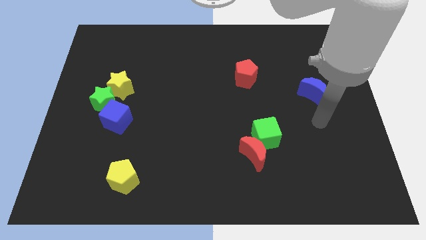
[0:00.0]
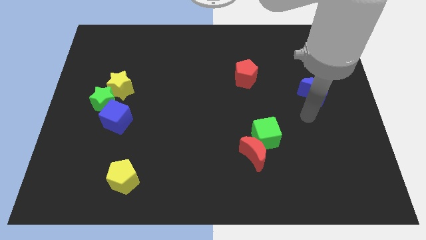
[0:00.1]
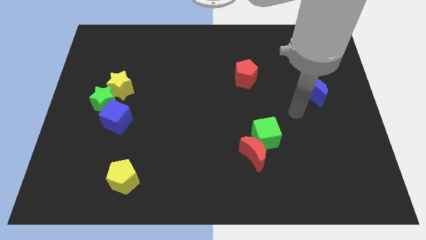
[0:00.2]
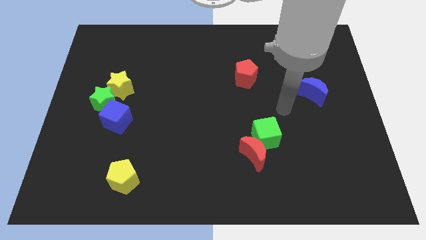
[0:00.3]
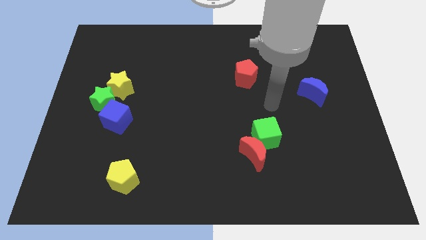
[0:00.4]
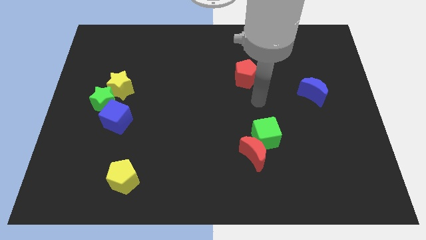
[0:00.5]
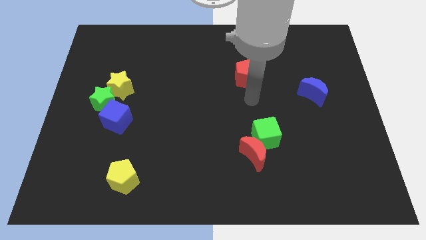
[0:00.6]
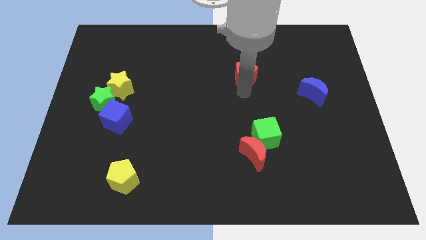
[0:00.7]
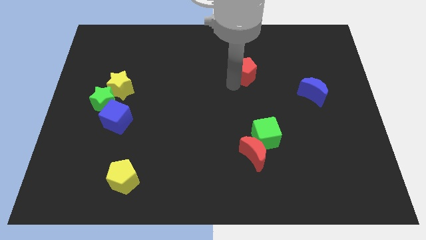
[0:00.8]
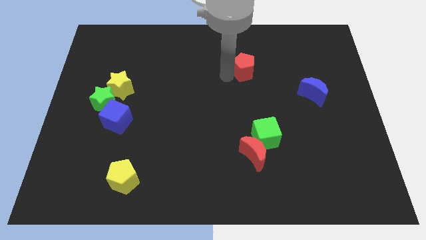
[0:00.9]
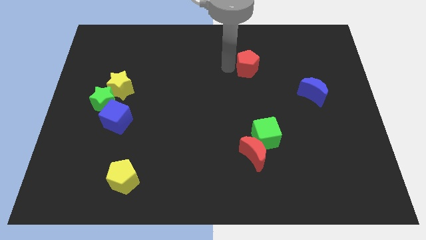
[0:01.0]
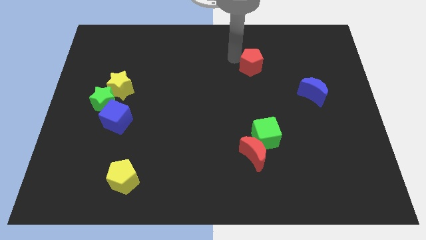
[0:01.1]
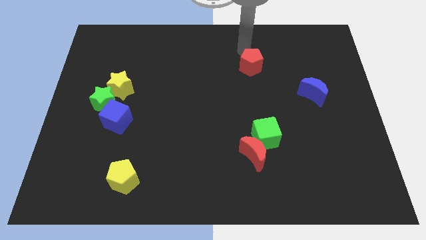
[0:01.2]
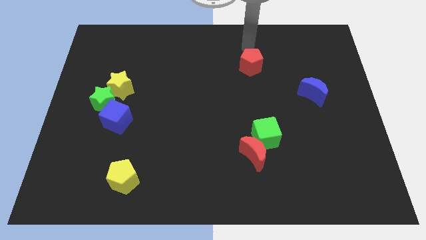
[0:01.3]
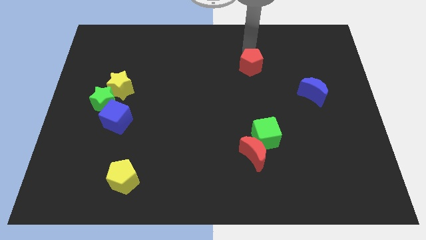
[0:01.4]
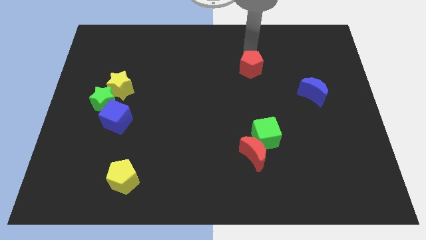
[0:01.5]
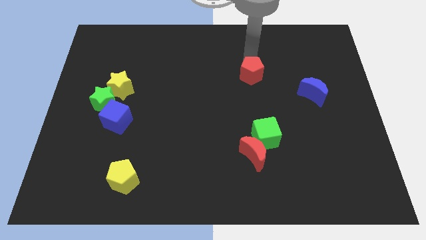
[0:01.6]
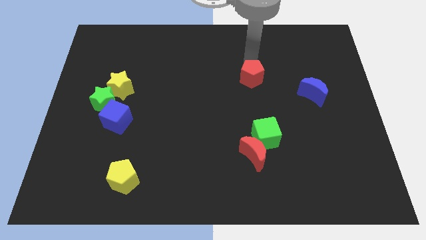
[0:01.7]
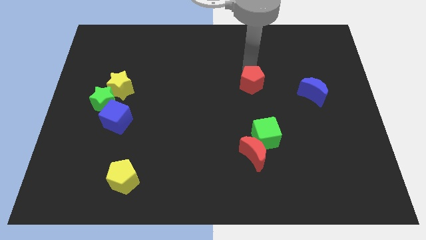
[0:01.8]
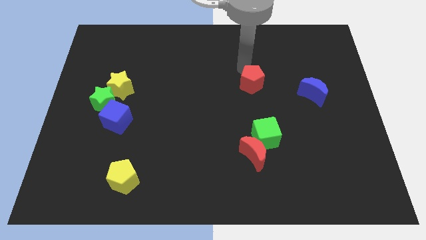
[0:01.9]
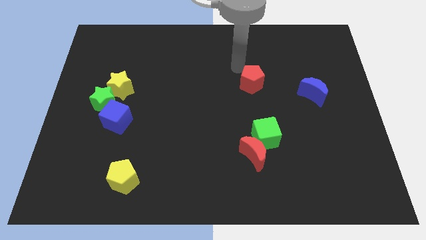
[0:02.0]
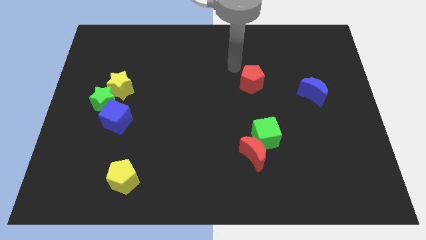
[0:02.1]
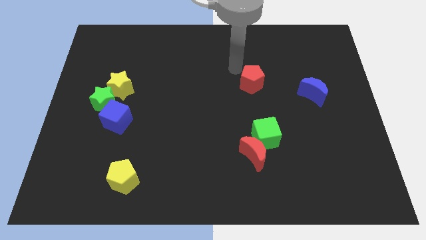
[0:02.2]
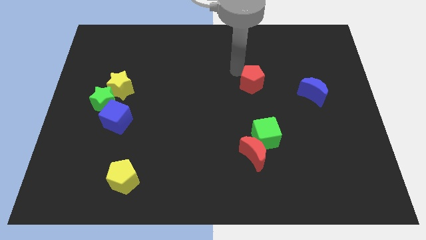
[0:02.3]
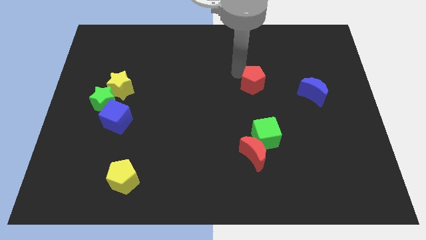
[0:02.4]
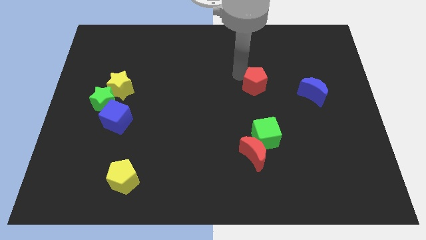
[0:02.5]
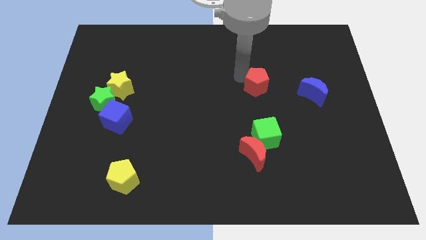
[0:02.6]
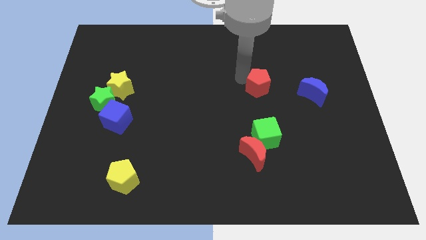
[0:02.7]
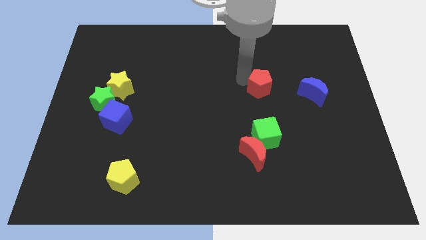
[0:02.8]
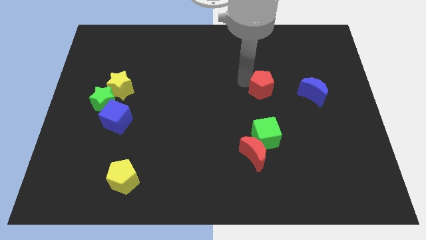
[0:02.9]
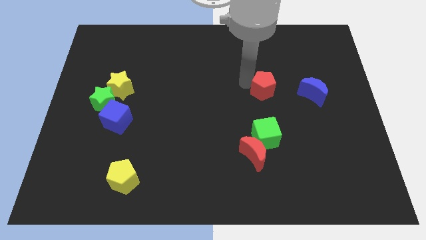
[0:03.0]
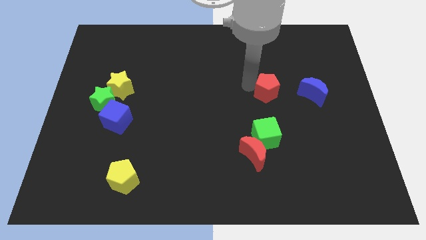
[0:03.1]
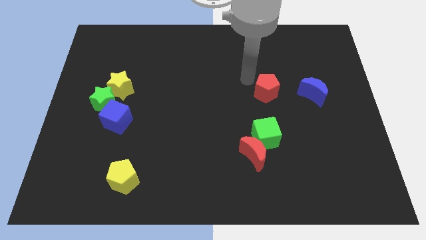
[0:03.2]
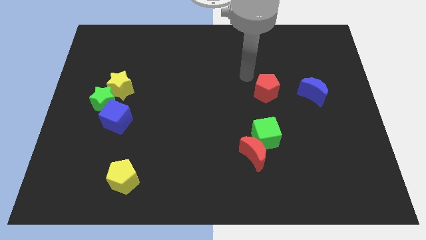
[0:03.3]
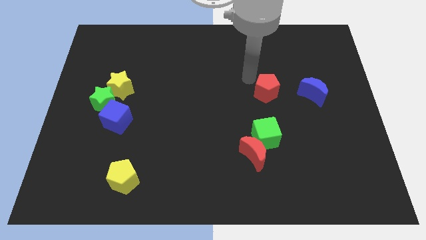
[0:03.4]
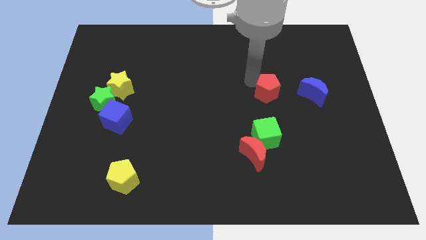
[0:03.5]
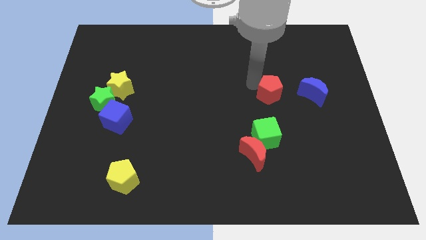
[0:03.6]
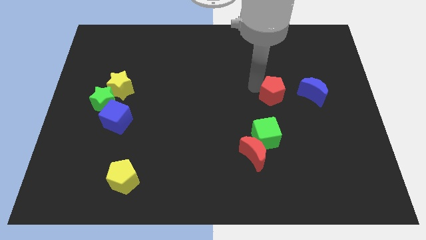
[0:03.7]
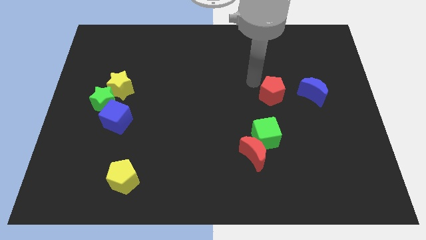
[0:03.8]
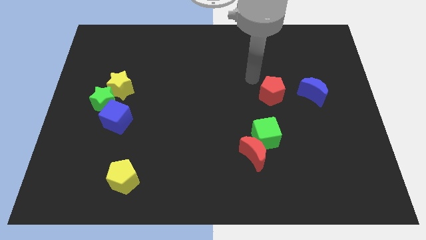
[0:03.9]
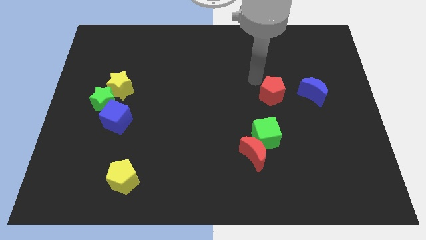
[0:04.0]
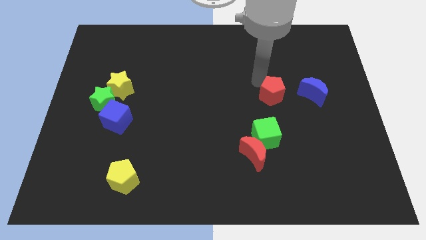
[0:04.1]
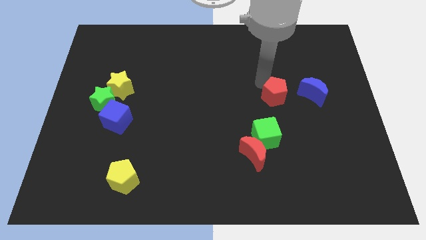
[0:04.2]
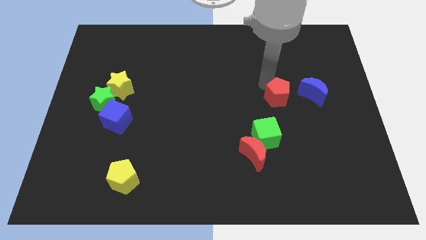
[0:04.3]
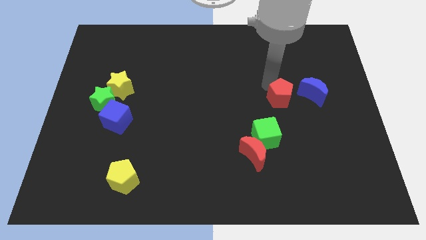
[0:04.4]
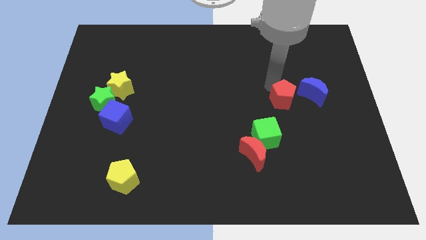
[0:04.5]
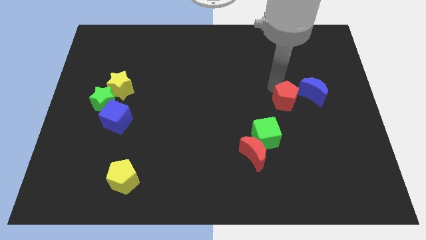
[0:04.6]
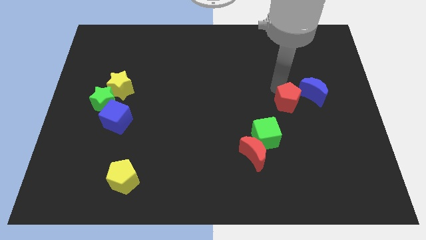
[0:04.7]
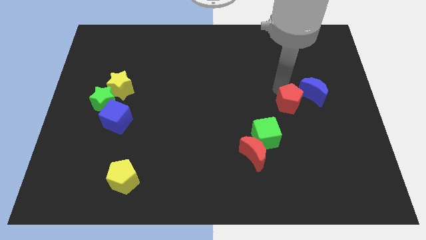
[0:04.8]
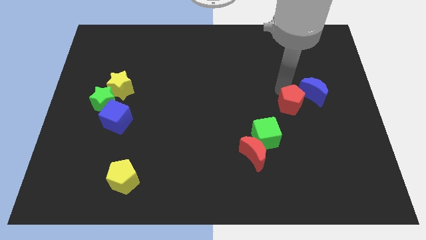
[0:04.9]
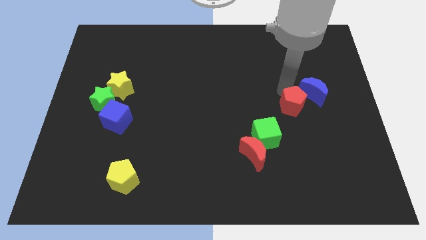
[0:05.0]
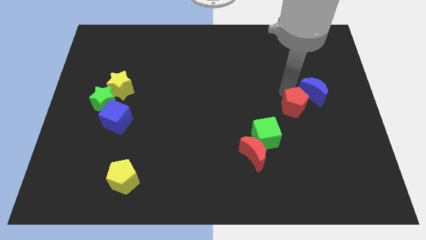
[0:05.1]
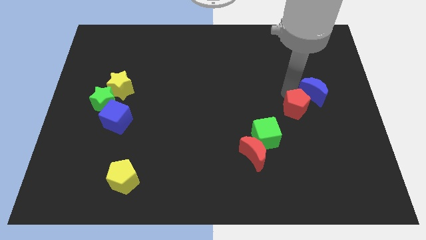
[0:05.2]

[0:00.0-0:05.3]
push the red pentagon to the bottom of the blue moon

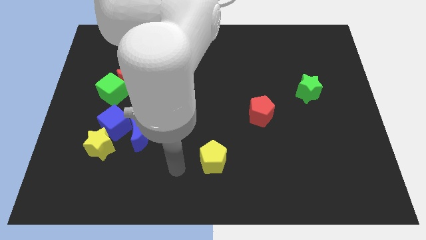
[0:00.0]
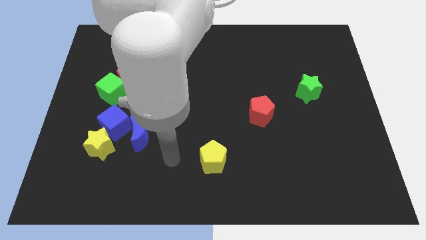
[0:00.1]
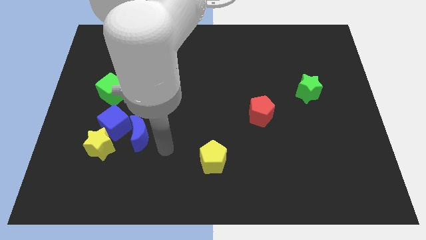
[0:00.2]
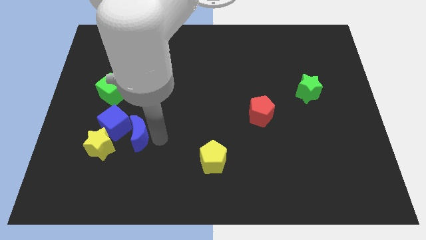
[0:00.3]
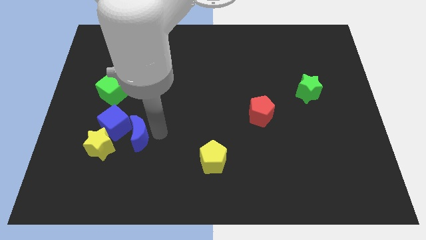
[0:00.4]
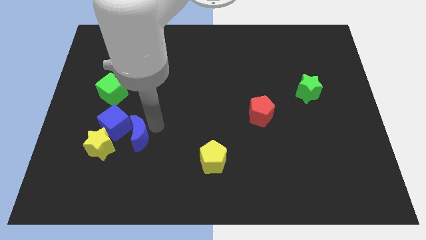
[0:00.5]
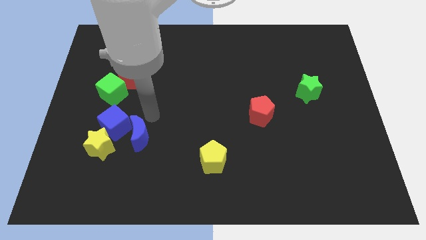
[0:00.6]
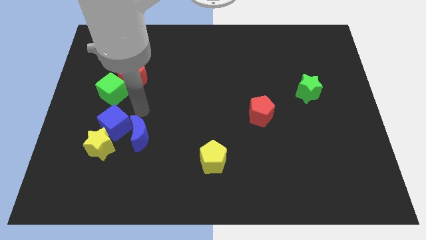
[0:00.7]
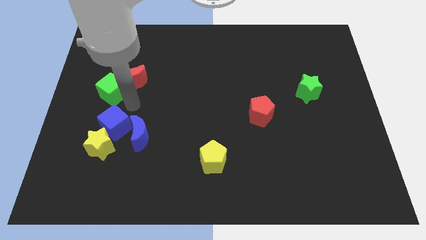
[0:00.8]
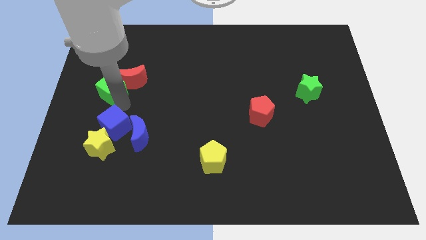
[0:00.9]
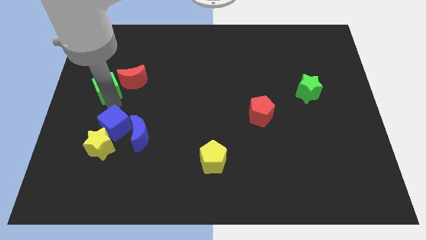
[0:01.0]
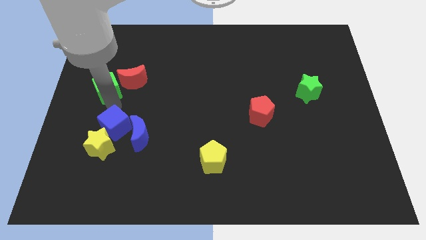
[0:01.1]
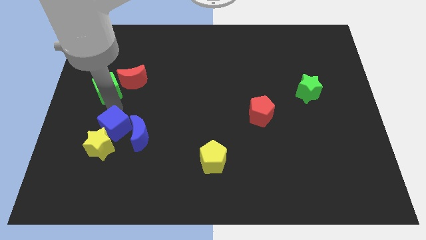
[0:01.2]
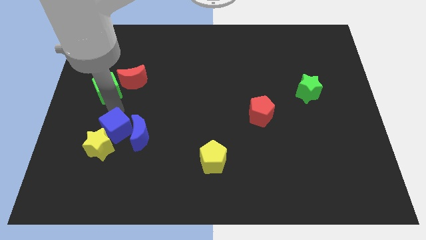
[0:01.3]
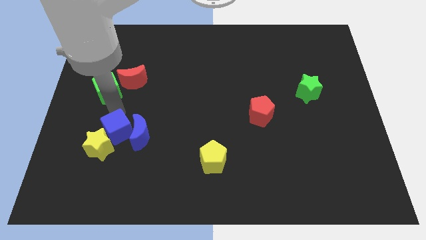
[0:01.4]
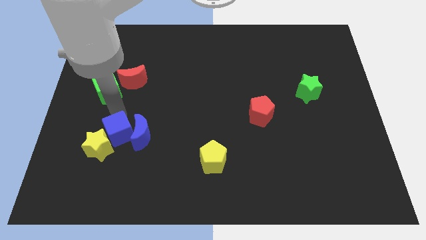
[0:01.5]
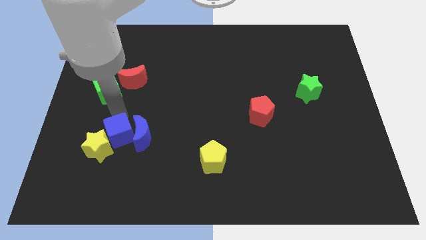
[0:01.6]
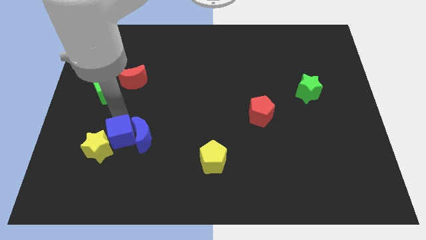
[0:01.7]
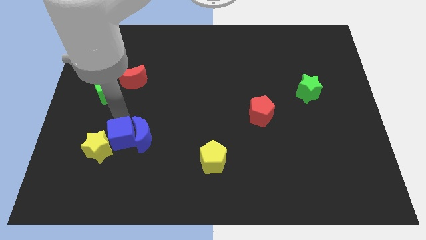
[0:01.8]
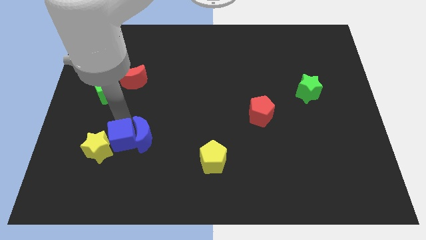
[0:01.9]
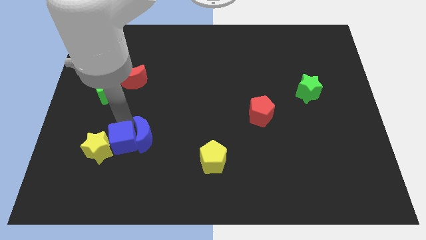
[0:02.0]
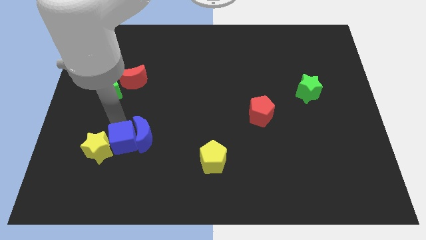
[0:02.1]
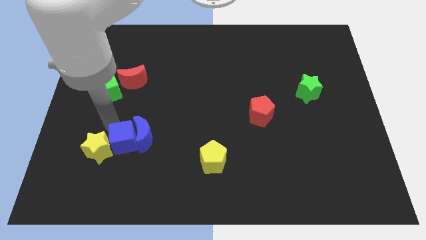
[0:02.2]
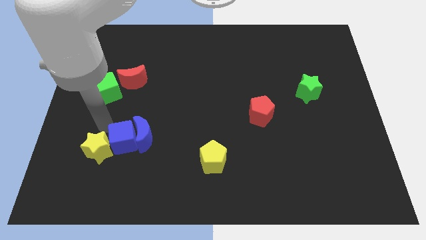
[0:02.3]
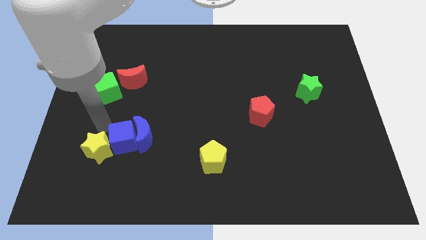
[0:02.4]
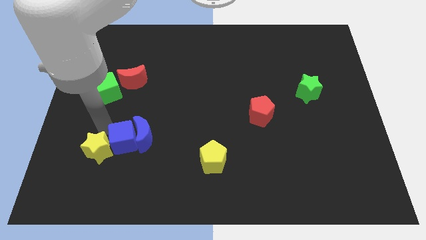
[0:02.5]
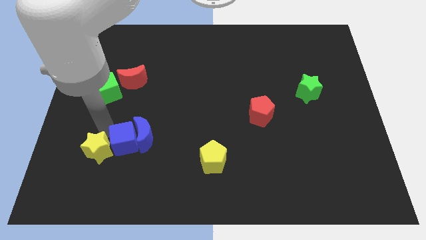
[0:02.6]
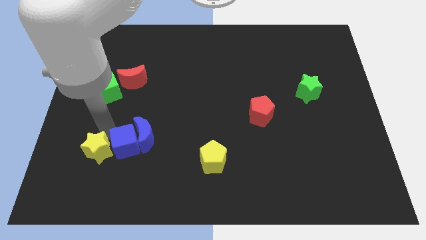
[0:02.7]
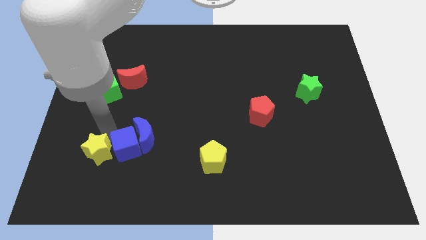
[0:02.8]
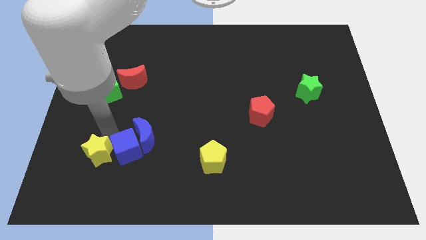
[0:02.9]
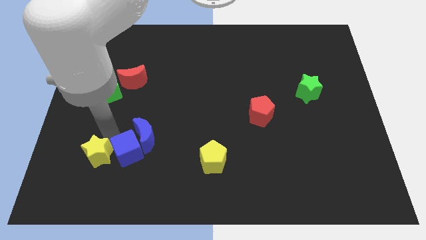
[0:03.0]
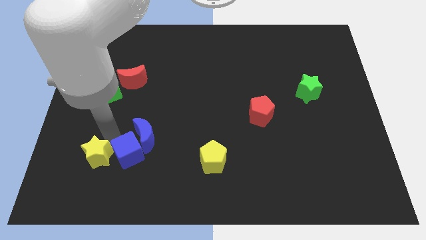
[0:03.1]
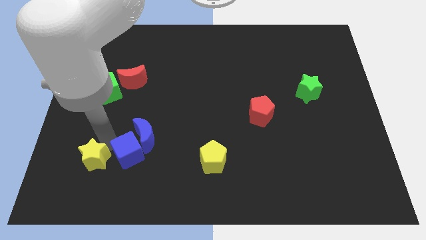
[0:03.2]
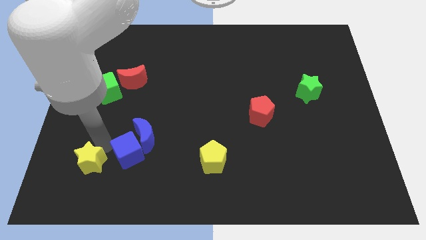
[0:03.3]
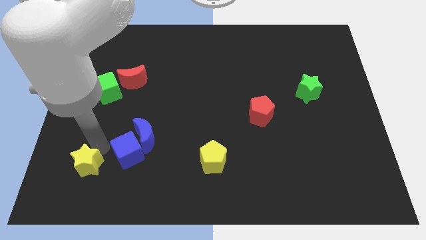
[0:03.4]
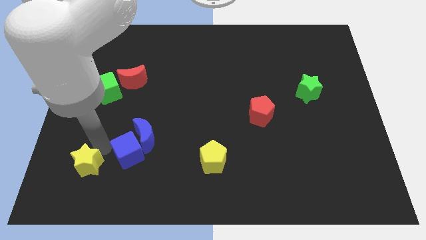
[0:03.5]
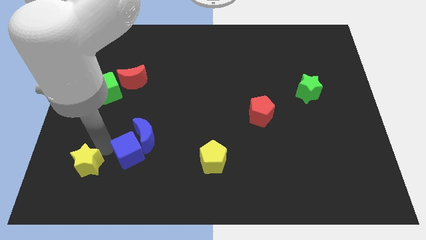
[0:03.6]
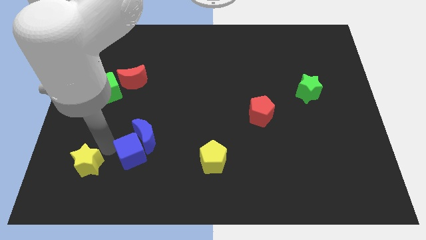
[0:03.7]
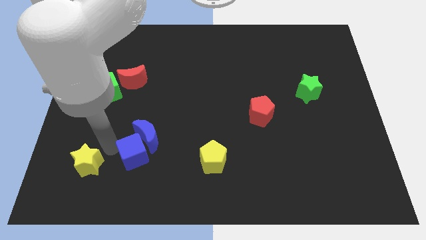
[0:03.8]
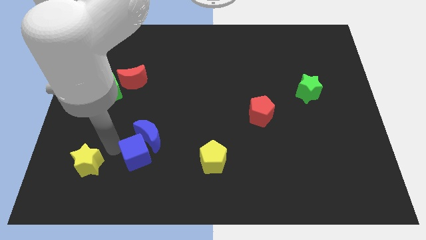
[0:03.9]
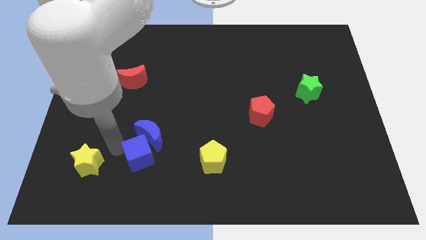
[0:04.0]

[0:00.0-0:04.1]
move the blue cube to the left of the yellow pentagon
